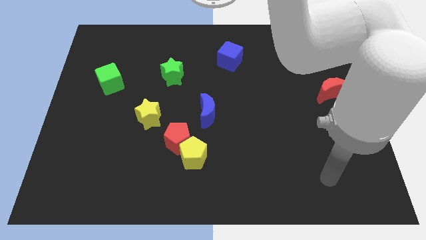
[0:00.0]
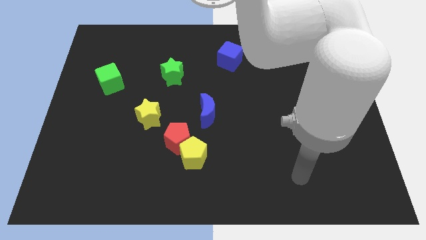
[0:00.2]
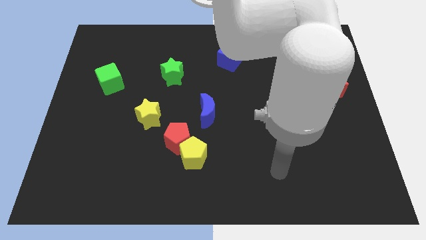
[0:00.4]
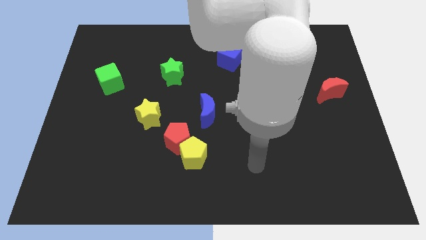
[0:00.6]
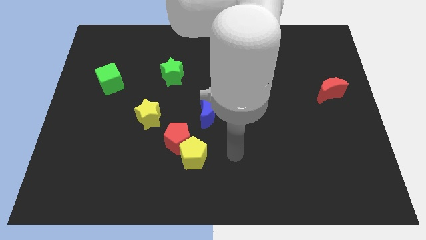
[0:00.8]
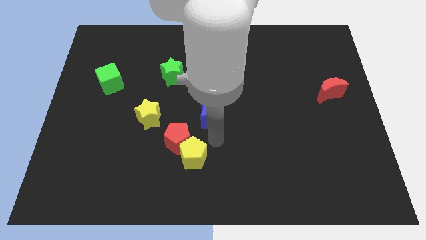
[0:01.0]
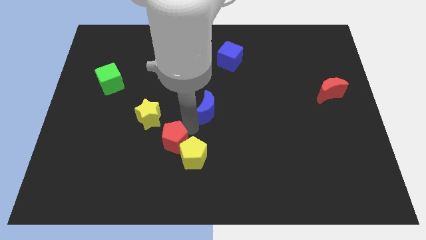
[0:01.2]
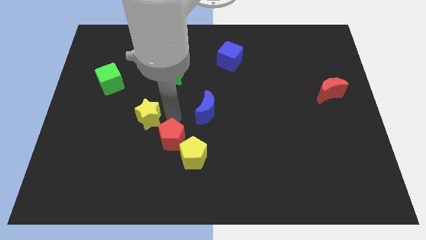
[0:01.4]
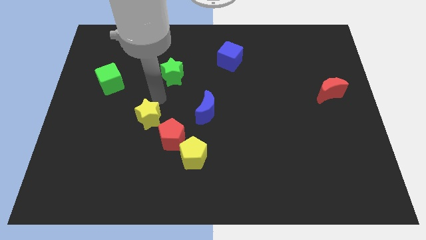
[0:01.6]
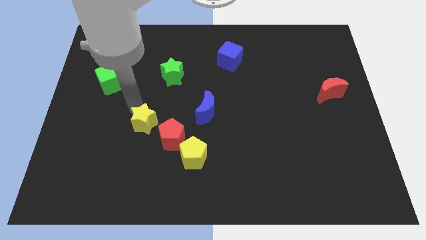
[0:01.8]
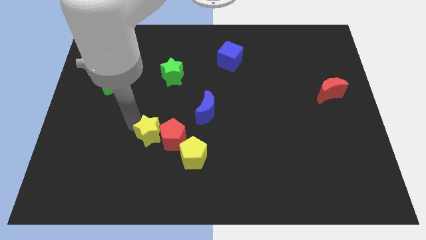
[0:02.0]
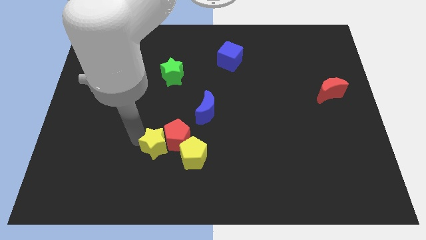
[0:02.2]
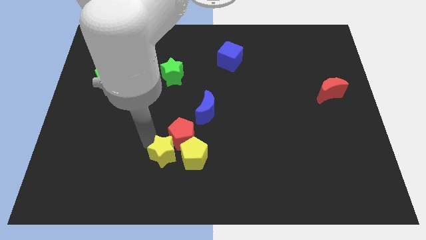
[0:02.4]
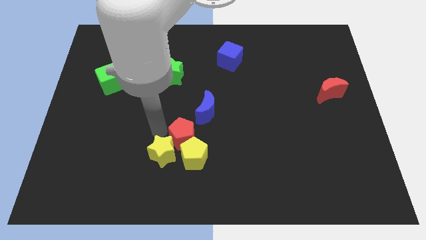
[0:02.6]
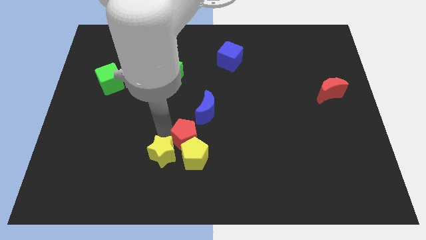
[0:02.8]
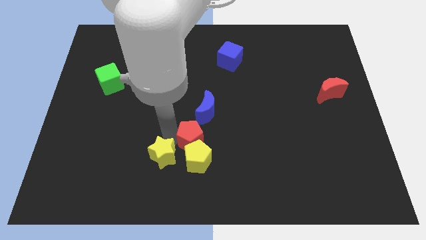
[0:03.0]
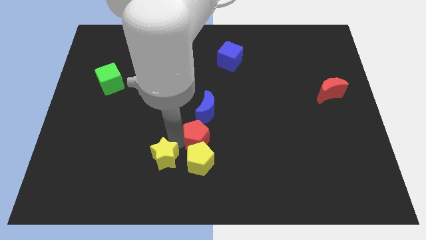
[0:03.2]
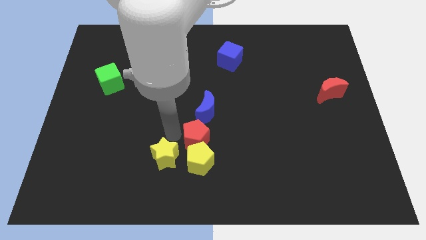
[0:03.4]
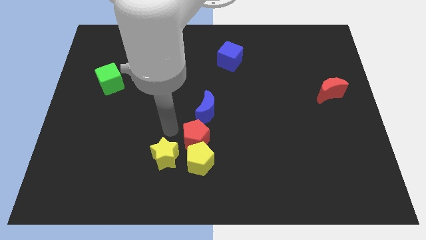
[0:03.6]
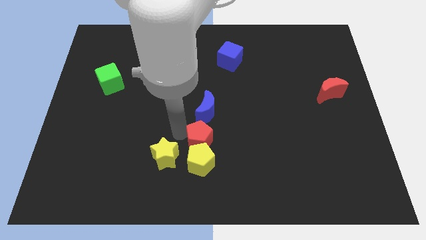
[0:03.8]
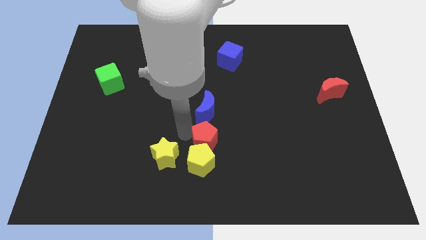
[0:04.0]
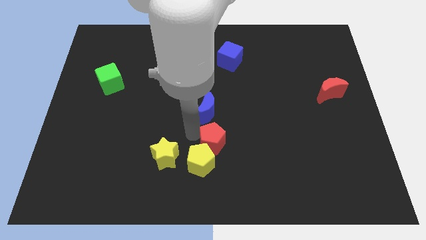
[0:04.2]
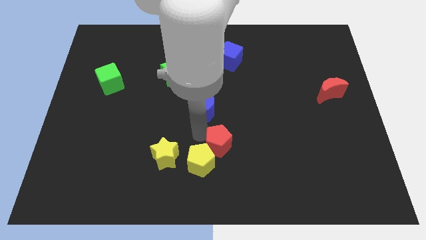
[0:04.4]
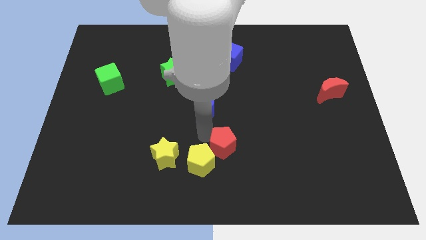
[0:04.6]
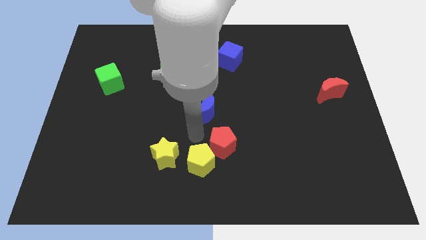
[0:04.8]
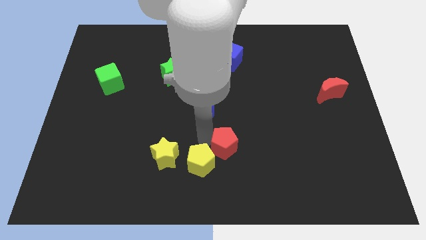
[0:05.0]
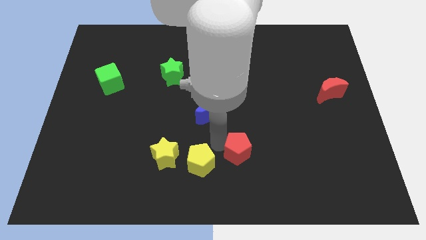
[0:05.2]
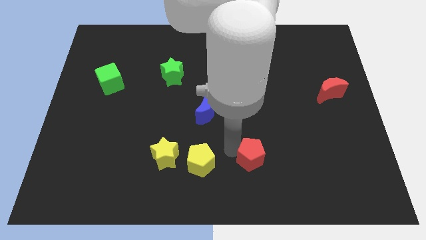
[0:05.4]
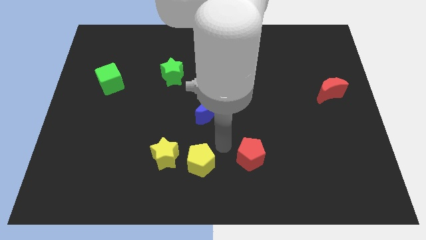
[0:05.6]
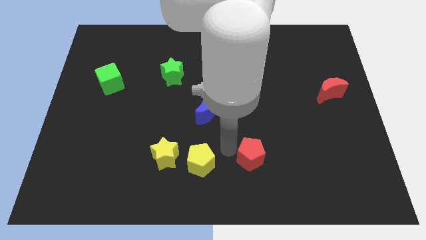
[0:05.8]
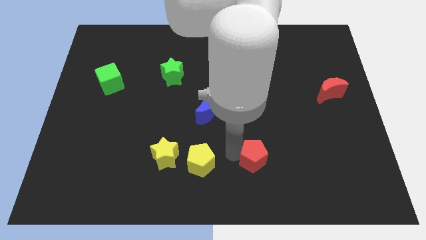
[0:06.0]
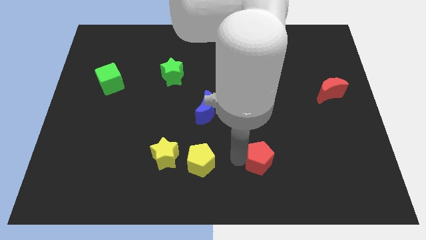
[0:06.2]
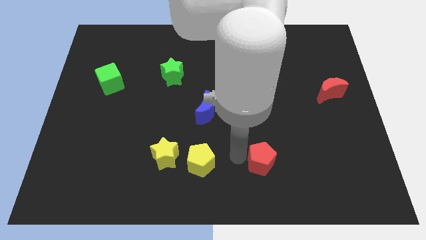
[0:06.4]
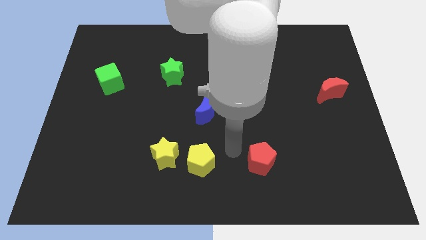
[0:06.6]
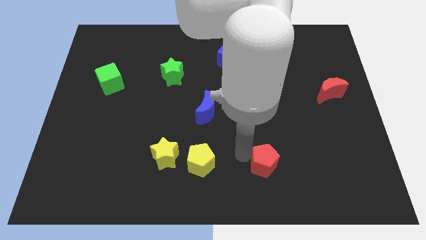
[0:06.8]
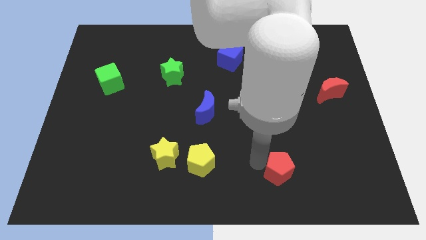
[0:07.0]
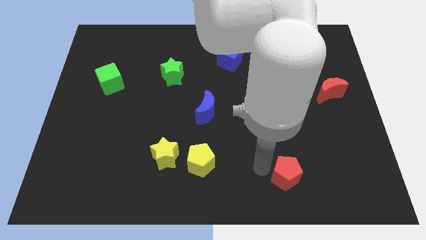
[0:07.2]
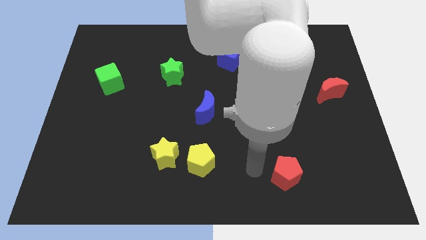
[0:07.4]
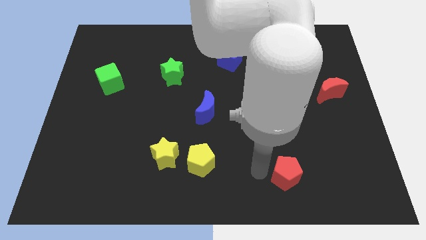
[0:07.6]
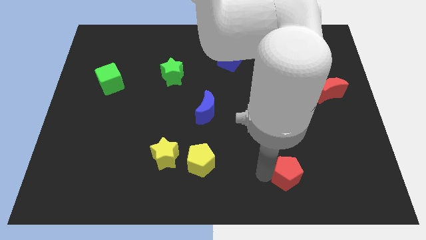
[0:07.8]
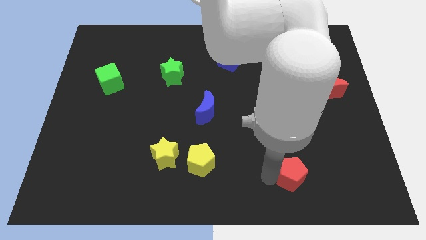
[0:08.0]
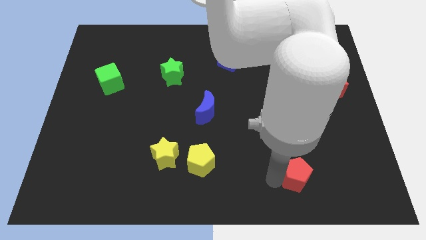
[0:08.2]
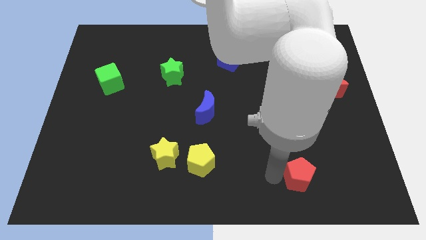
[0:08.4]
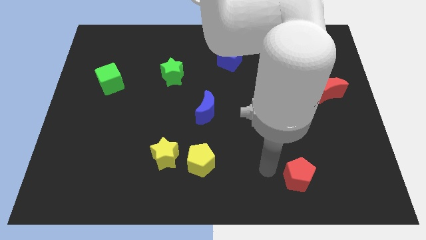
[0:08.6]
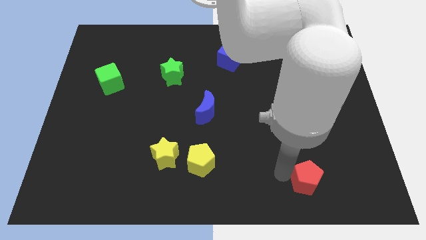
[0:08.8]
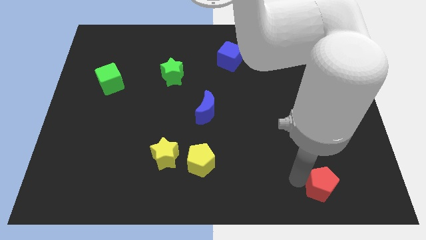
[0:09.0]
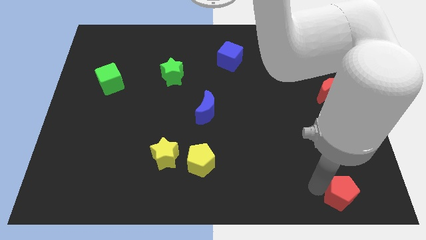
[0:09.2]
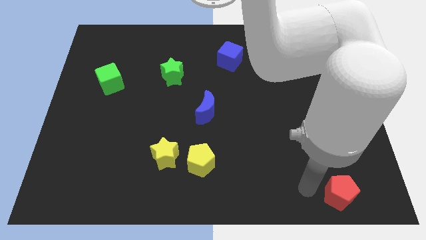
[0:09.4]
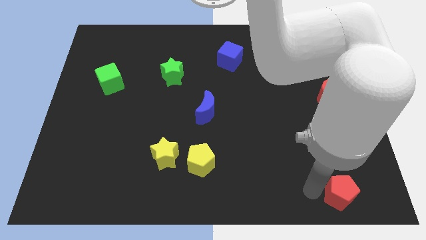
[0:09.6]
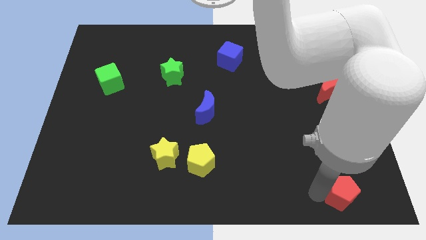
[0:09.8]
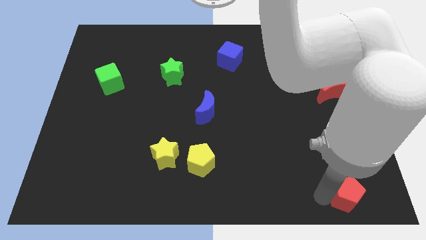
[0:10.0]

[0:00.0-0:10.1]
slide the red pentagon to the lower right corner

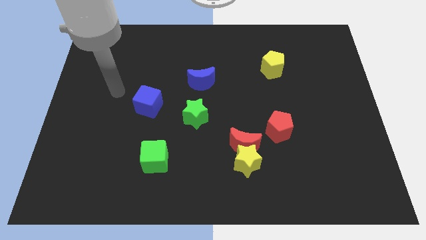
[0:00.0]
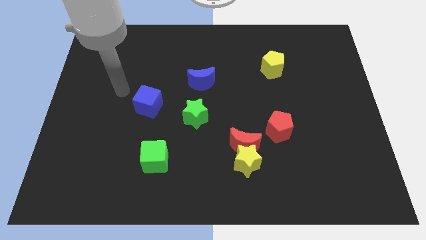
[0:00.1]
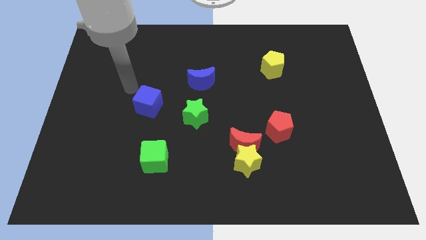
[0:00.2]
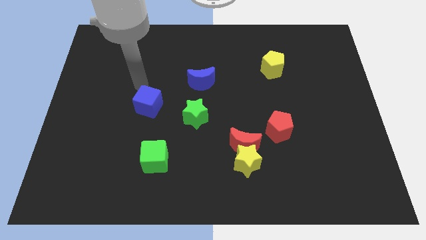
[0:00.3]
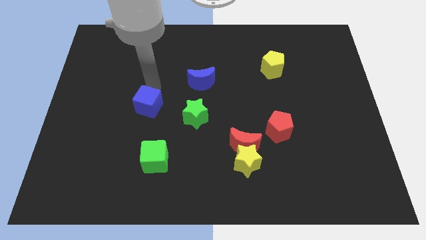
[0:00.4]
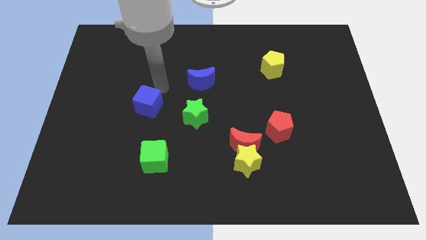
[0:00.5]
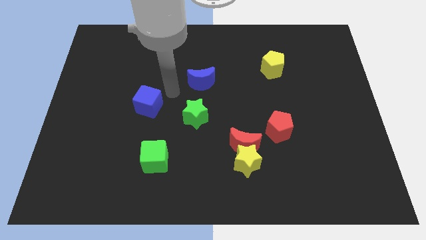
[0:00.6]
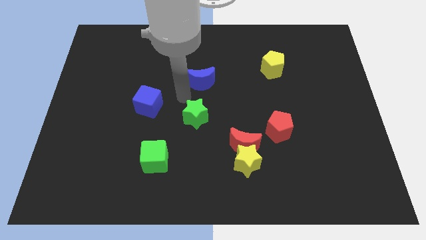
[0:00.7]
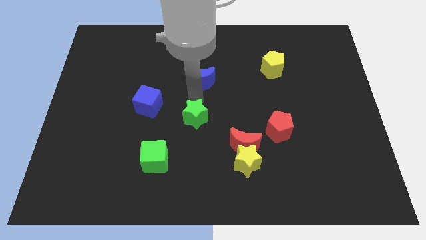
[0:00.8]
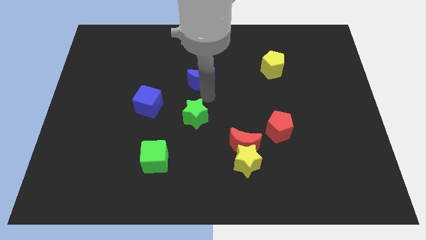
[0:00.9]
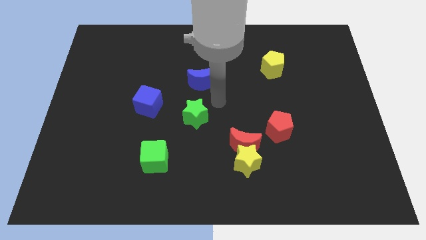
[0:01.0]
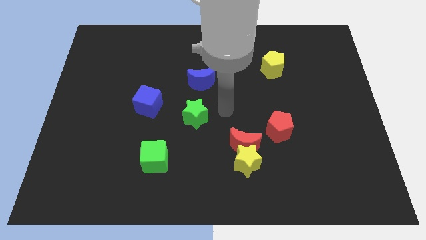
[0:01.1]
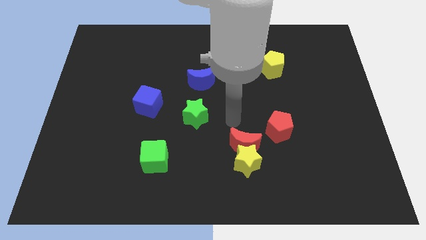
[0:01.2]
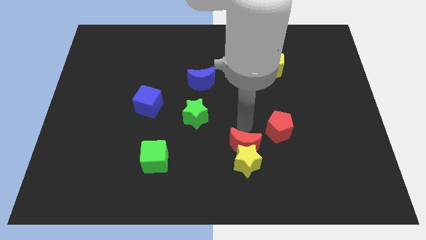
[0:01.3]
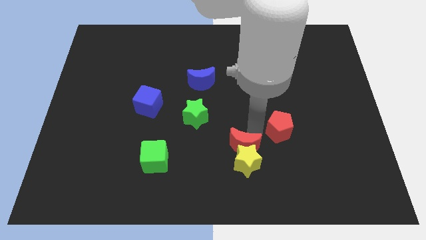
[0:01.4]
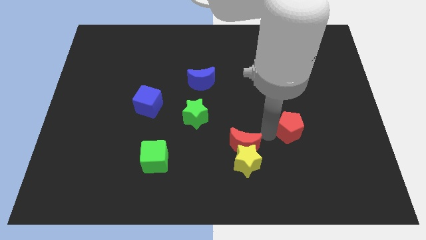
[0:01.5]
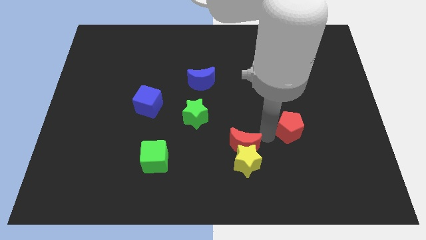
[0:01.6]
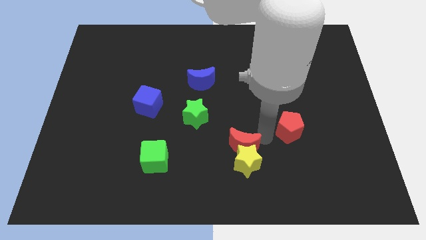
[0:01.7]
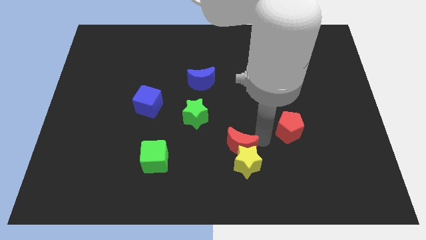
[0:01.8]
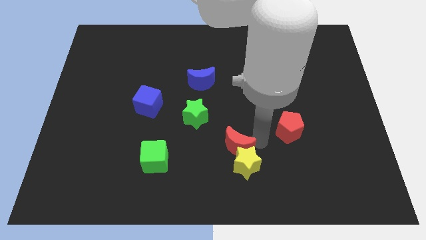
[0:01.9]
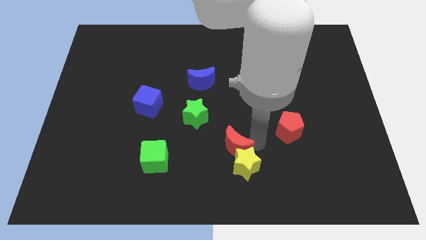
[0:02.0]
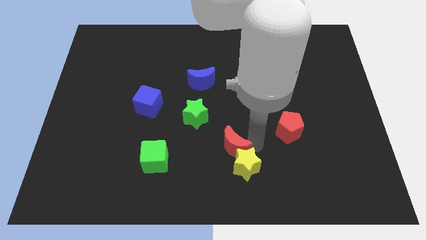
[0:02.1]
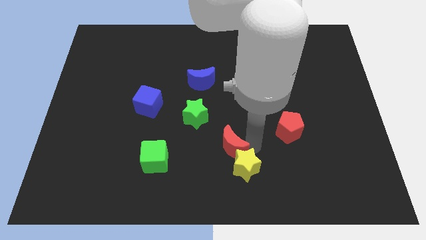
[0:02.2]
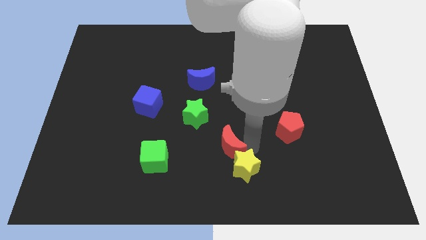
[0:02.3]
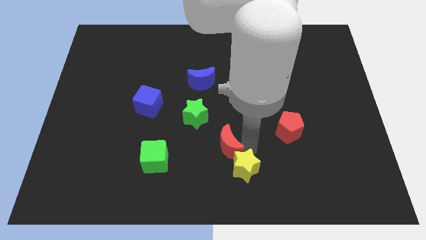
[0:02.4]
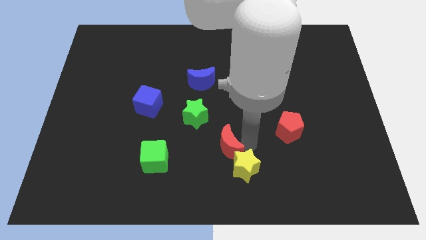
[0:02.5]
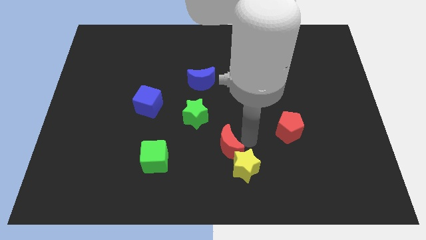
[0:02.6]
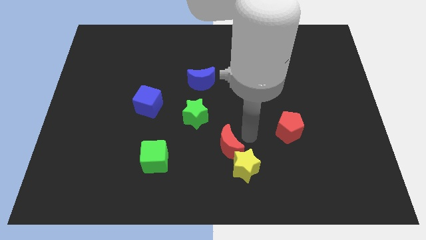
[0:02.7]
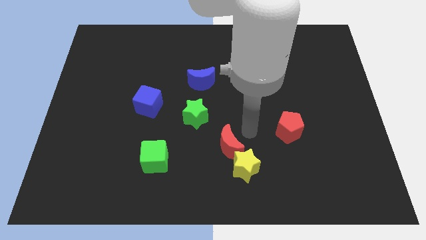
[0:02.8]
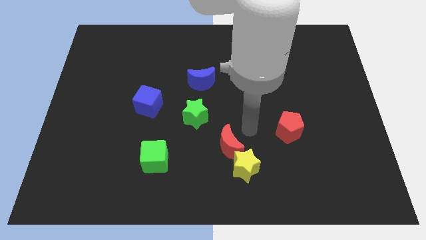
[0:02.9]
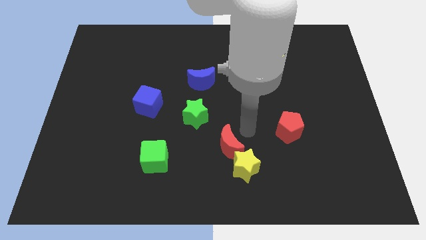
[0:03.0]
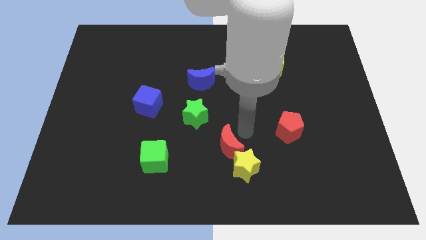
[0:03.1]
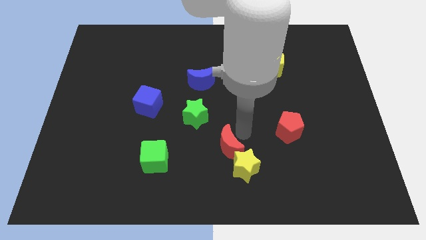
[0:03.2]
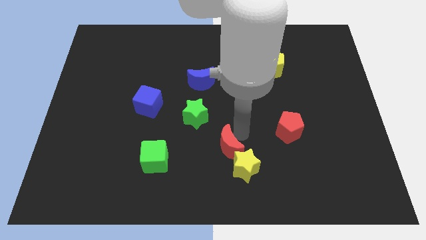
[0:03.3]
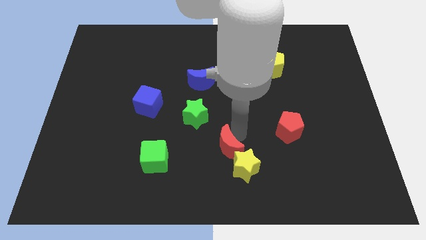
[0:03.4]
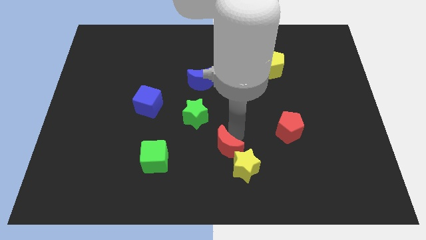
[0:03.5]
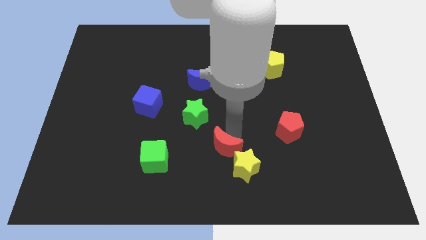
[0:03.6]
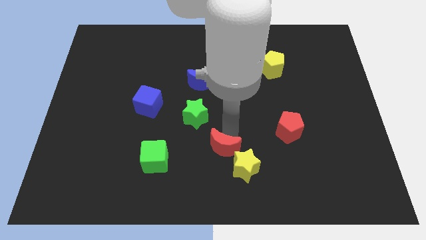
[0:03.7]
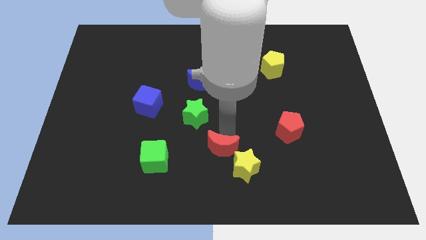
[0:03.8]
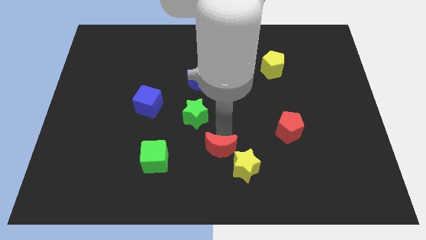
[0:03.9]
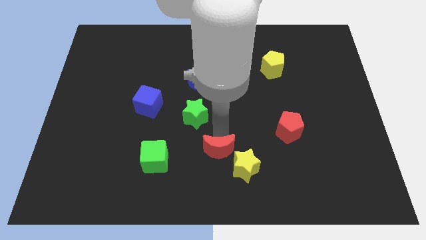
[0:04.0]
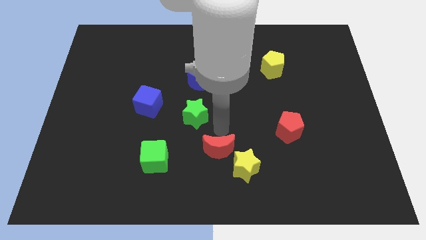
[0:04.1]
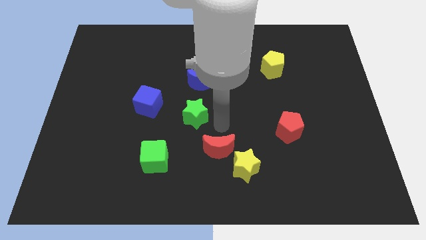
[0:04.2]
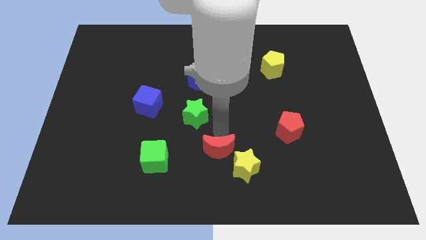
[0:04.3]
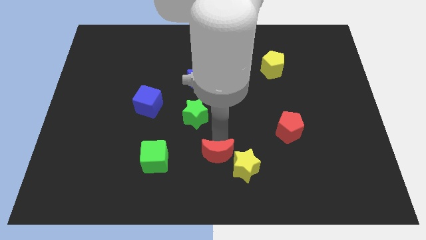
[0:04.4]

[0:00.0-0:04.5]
push the red moon to the bottom
